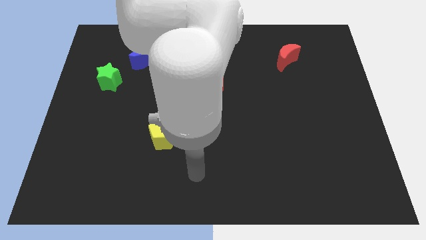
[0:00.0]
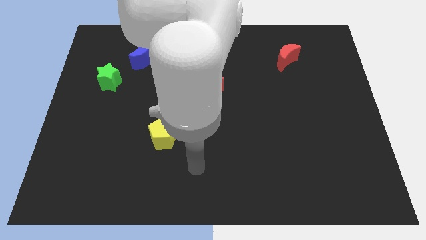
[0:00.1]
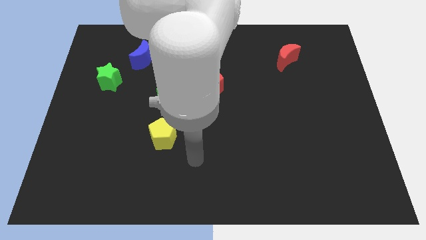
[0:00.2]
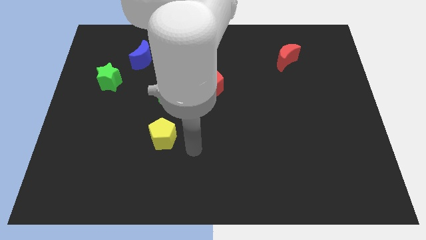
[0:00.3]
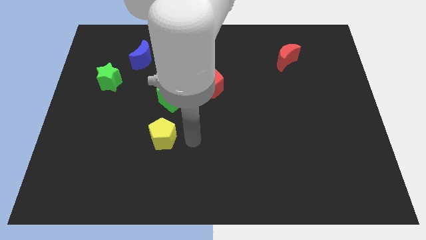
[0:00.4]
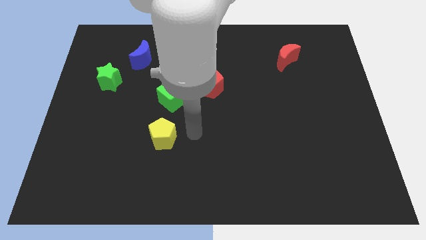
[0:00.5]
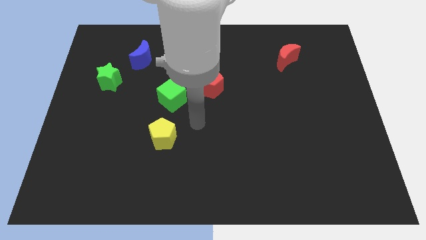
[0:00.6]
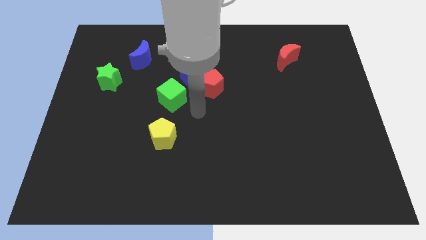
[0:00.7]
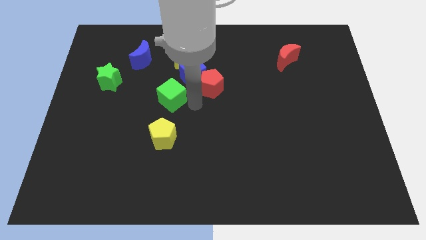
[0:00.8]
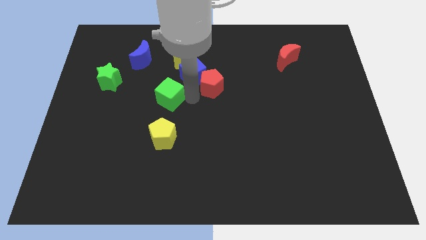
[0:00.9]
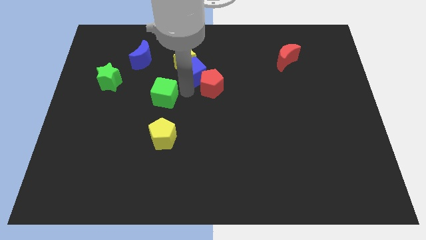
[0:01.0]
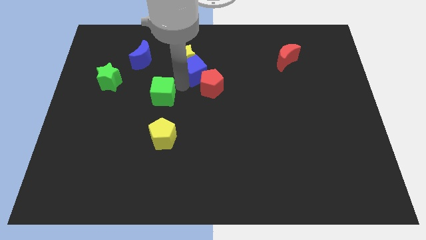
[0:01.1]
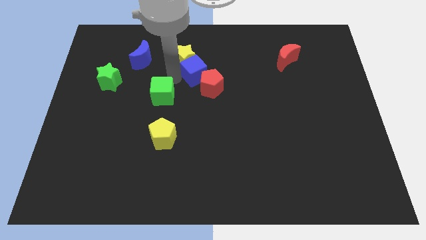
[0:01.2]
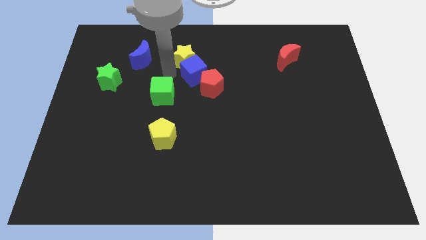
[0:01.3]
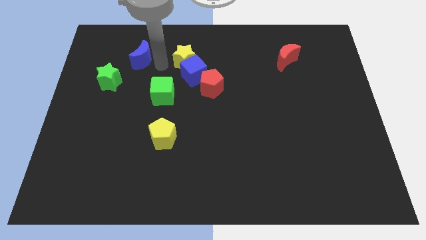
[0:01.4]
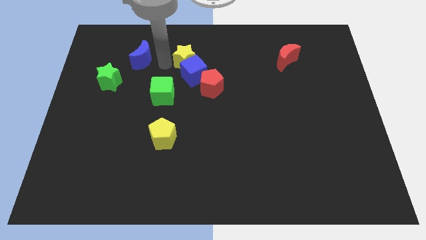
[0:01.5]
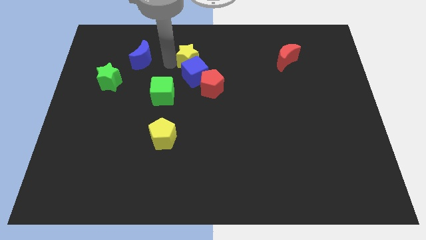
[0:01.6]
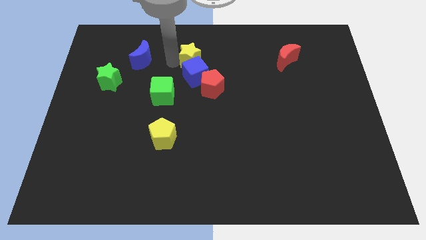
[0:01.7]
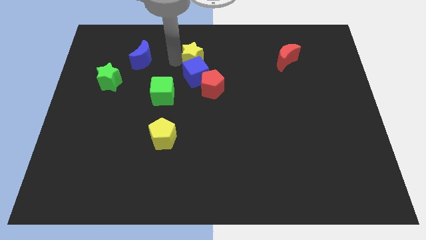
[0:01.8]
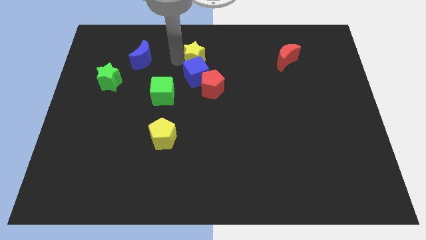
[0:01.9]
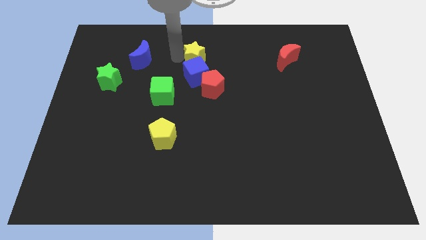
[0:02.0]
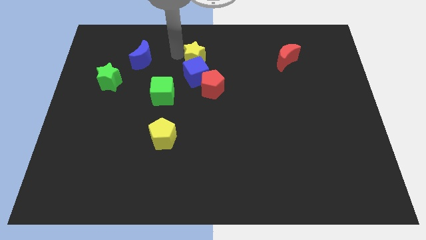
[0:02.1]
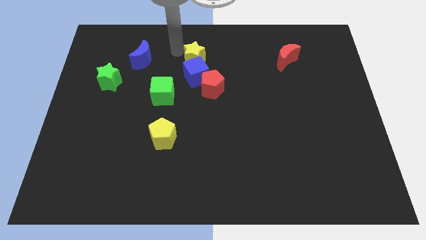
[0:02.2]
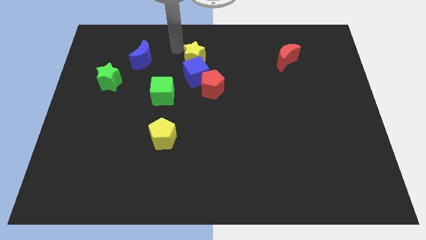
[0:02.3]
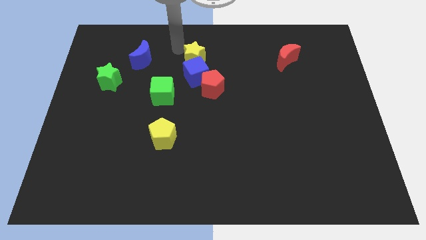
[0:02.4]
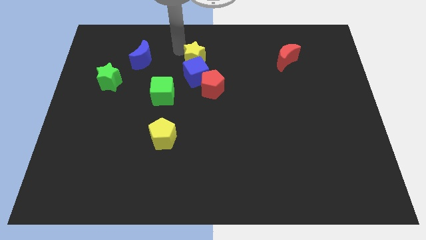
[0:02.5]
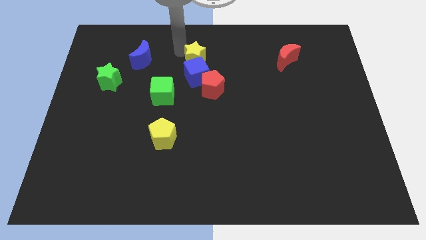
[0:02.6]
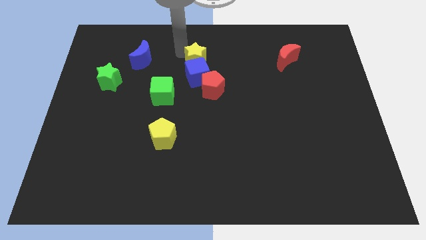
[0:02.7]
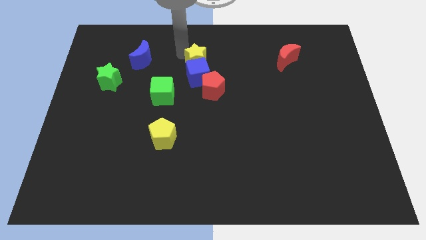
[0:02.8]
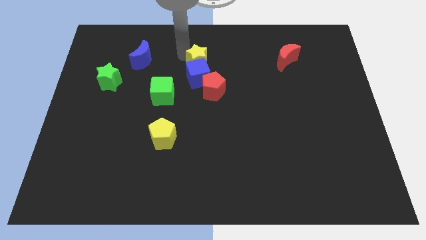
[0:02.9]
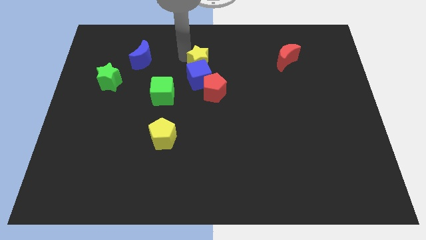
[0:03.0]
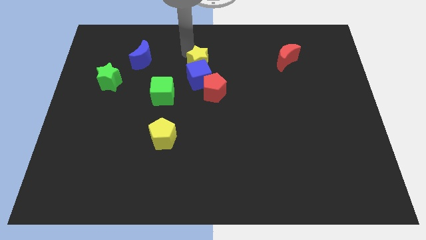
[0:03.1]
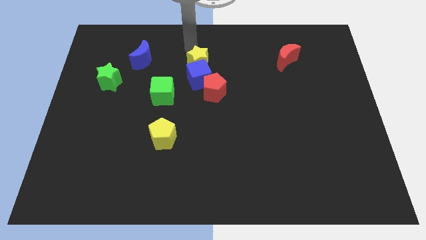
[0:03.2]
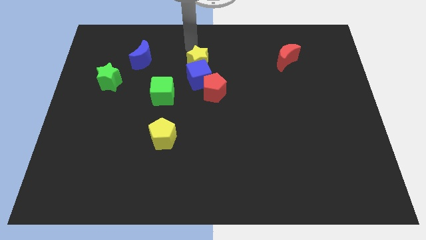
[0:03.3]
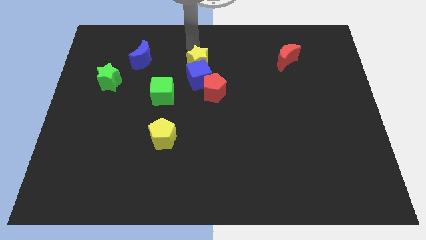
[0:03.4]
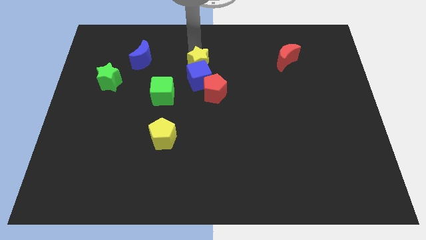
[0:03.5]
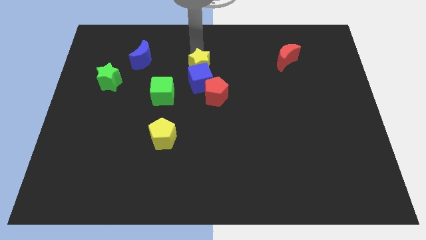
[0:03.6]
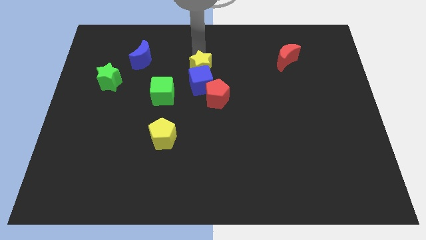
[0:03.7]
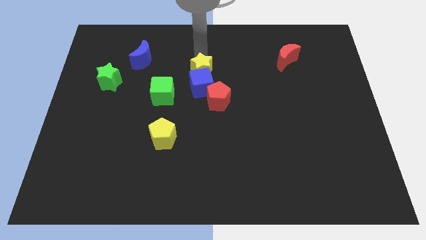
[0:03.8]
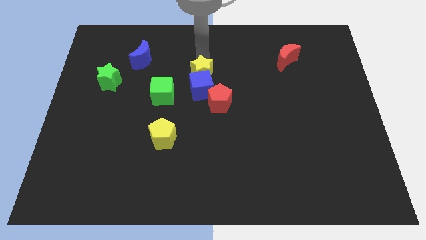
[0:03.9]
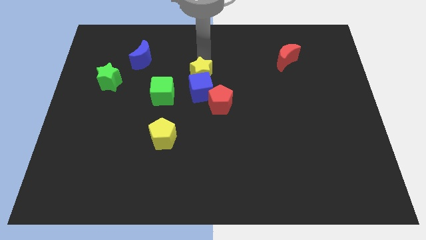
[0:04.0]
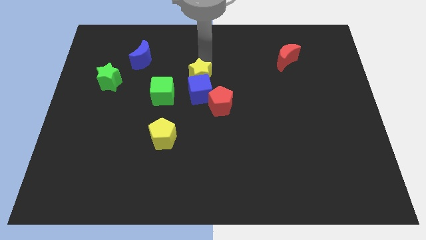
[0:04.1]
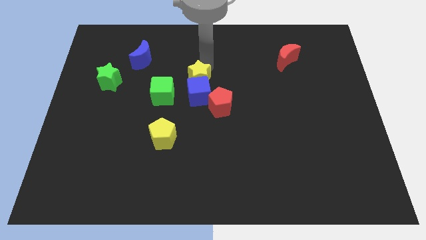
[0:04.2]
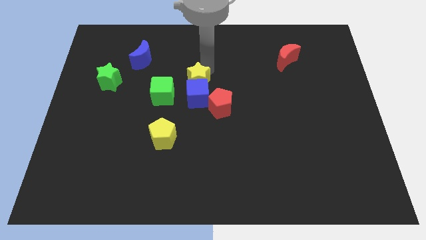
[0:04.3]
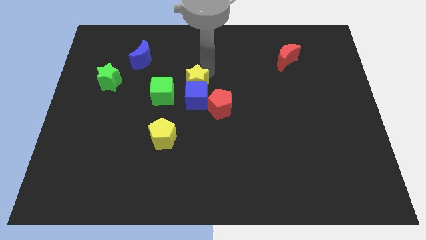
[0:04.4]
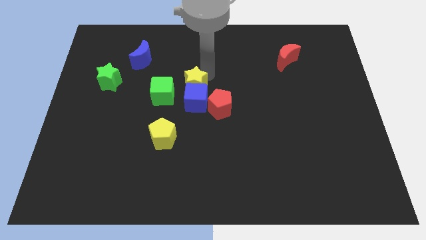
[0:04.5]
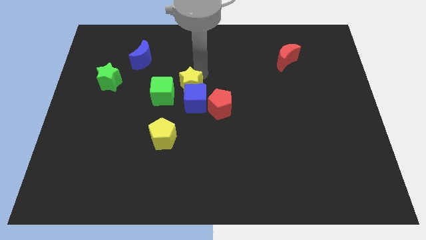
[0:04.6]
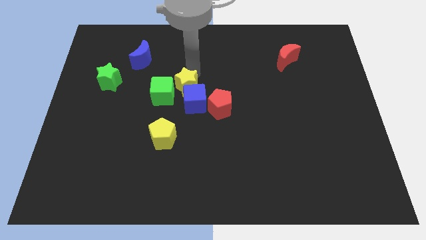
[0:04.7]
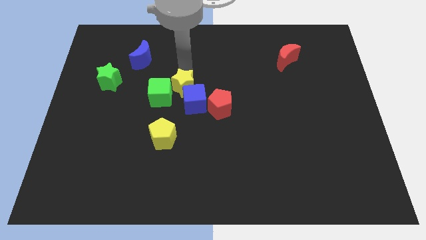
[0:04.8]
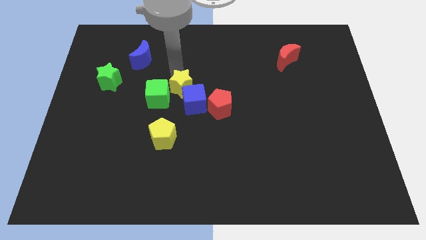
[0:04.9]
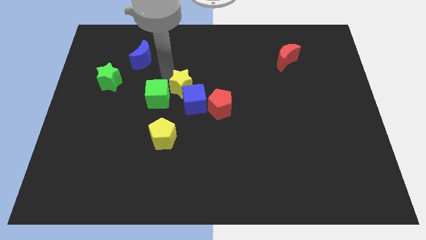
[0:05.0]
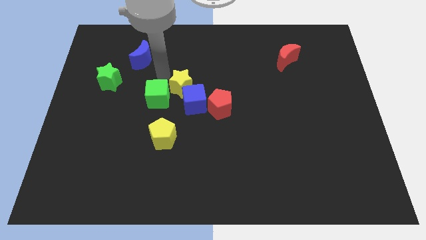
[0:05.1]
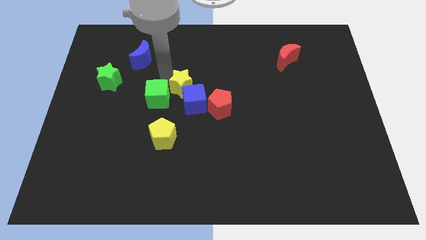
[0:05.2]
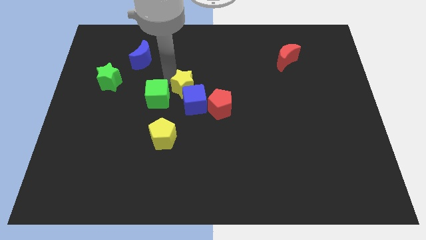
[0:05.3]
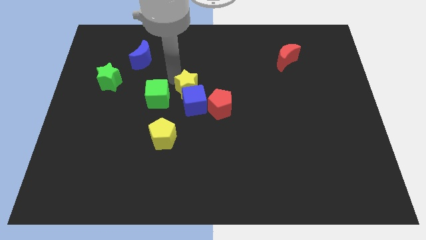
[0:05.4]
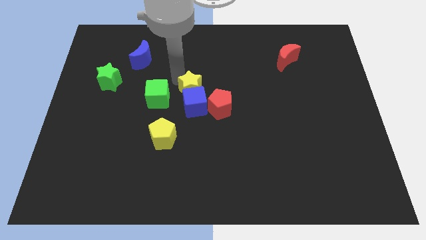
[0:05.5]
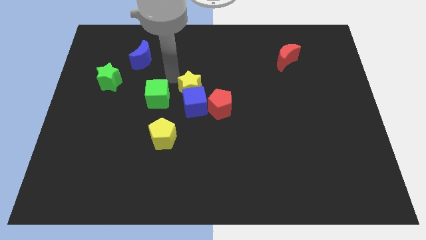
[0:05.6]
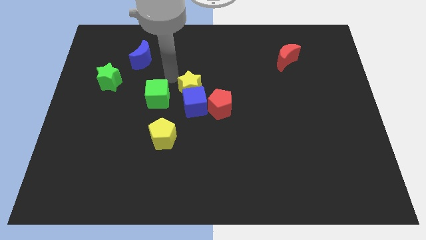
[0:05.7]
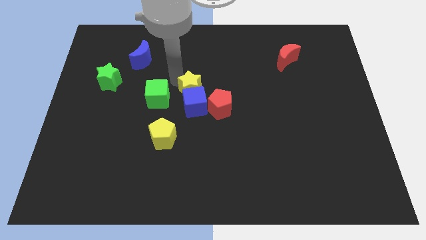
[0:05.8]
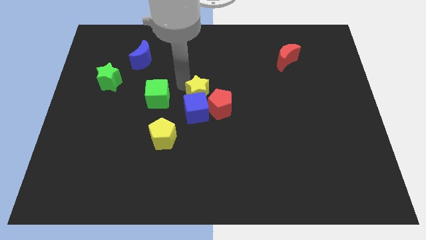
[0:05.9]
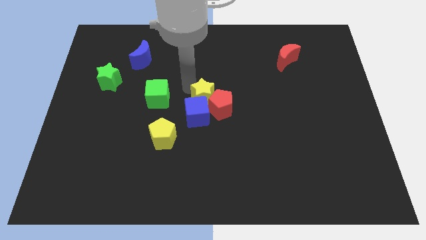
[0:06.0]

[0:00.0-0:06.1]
move the yellow star to the red pentagon
